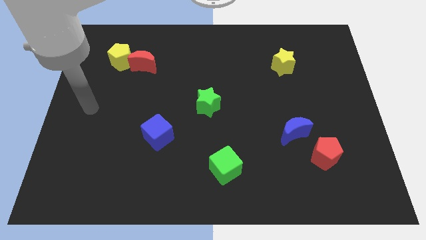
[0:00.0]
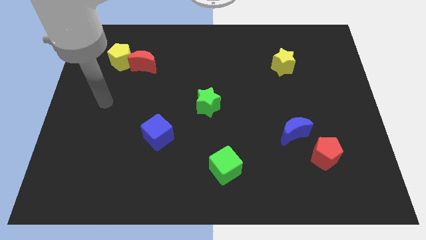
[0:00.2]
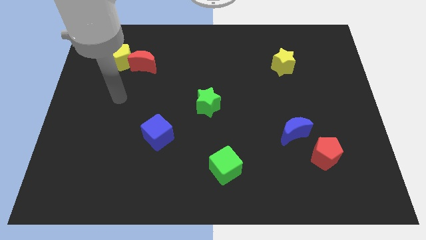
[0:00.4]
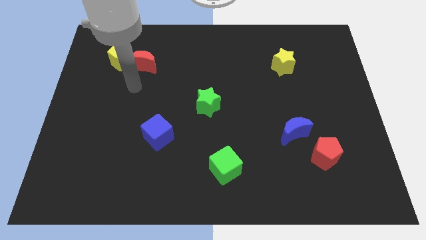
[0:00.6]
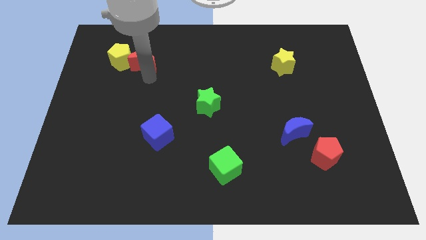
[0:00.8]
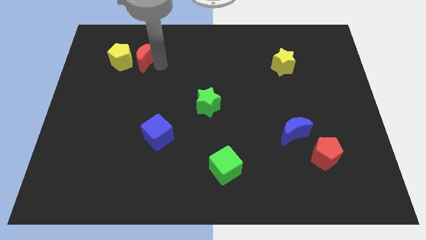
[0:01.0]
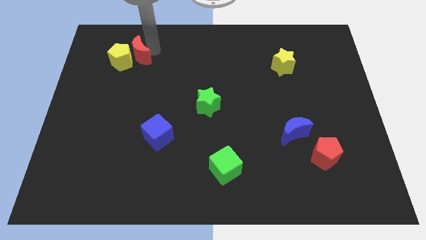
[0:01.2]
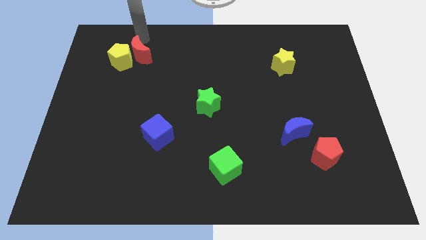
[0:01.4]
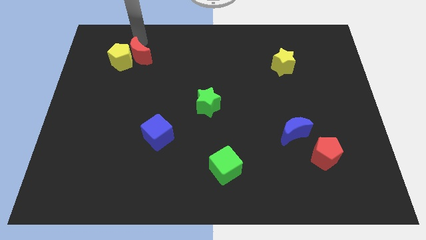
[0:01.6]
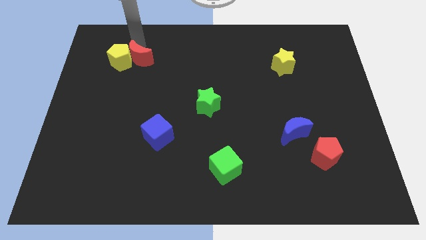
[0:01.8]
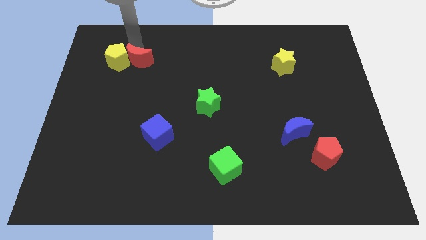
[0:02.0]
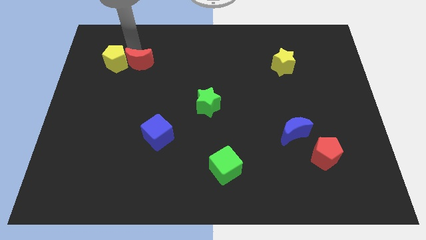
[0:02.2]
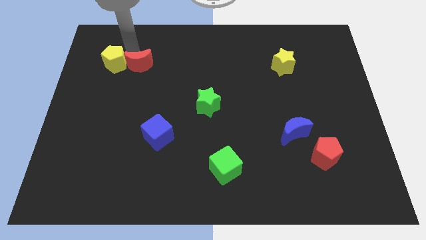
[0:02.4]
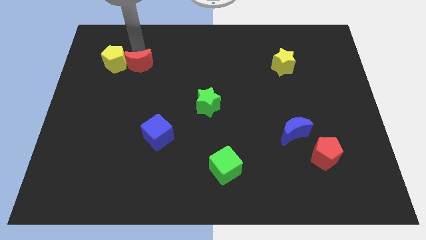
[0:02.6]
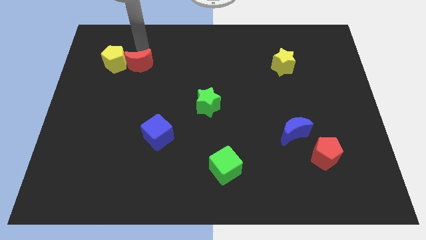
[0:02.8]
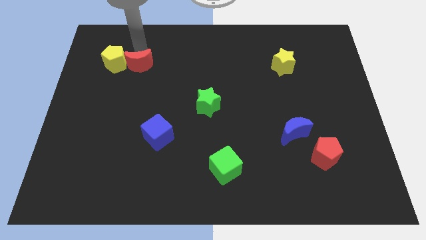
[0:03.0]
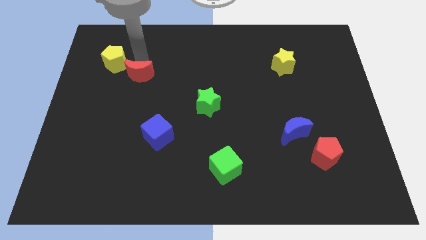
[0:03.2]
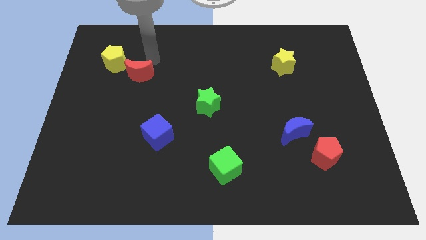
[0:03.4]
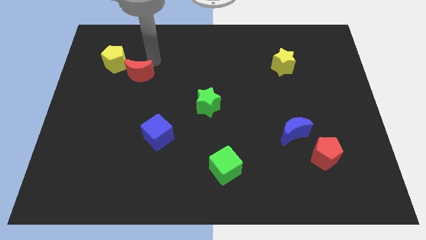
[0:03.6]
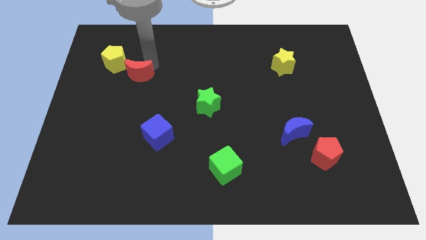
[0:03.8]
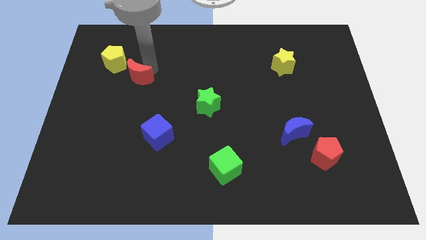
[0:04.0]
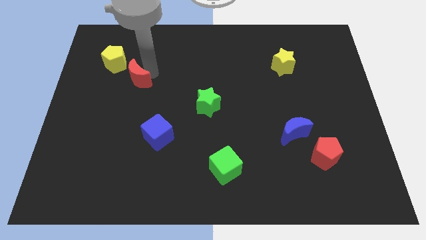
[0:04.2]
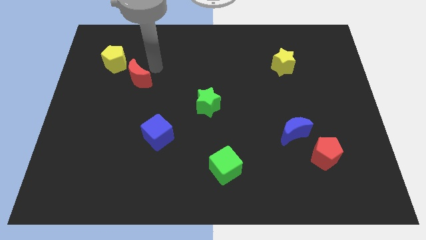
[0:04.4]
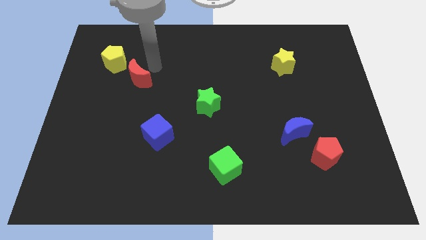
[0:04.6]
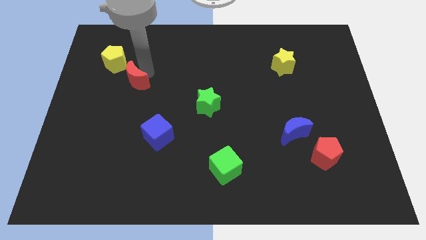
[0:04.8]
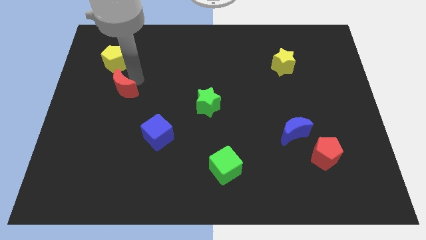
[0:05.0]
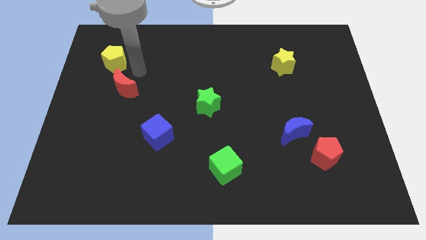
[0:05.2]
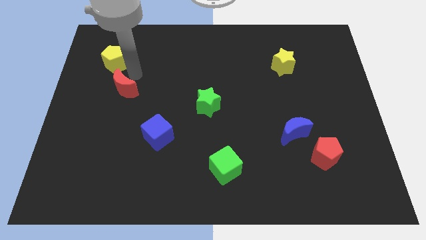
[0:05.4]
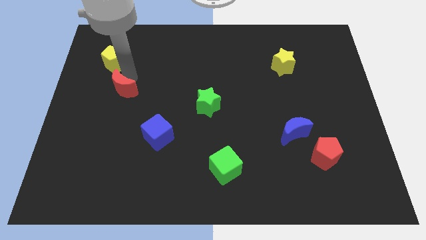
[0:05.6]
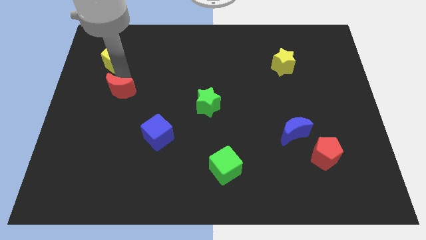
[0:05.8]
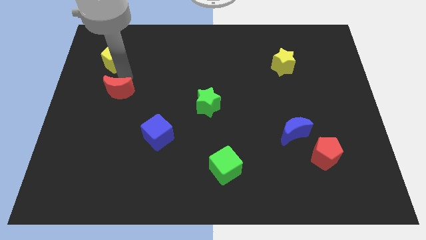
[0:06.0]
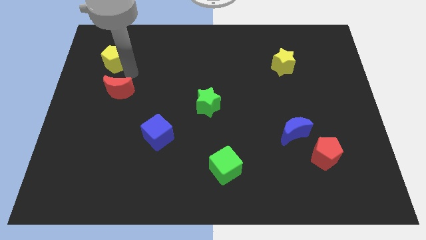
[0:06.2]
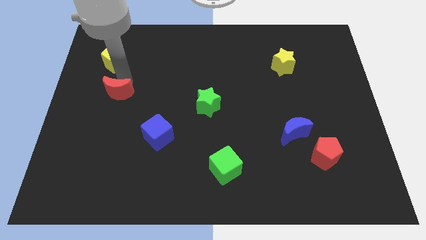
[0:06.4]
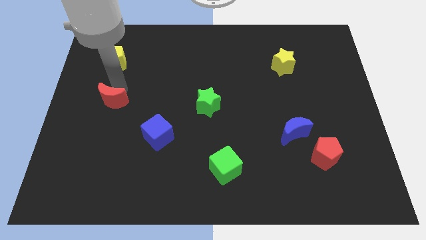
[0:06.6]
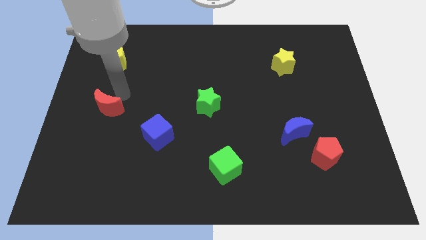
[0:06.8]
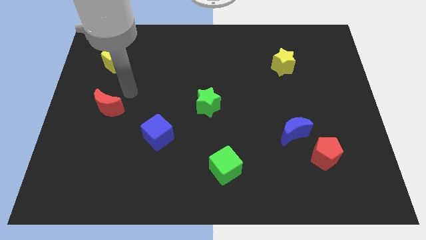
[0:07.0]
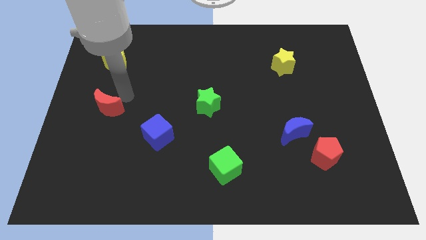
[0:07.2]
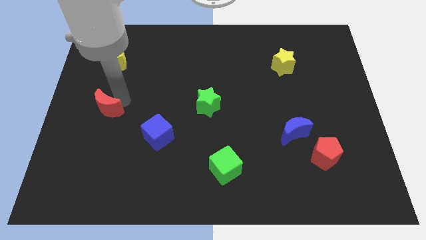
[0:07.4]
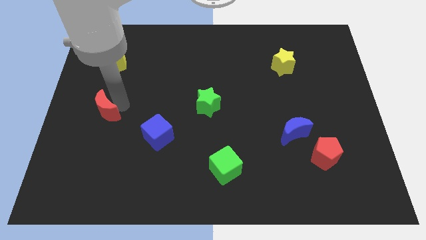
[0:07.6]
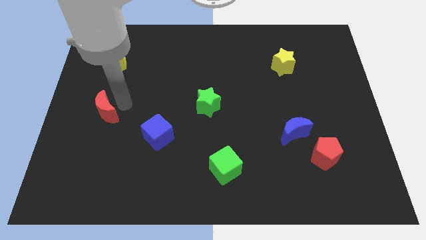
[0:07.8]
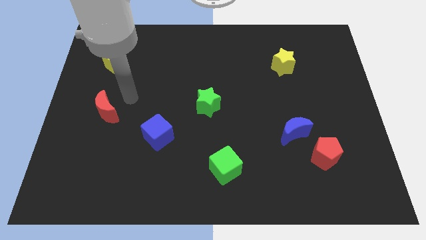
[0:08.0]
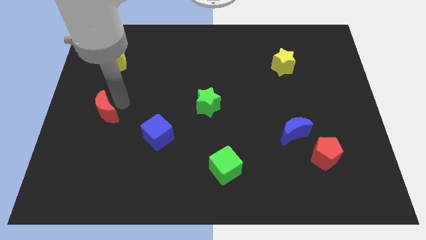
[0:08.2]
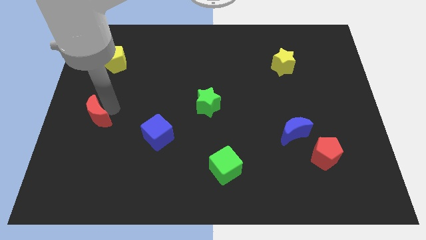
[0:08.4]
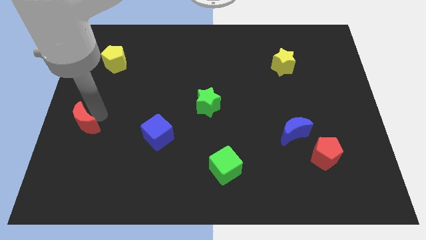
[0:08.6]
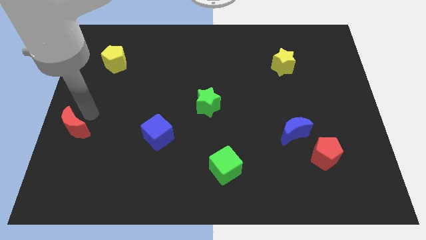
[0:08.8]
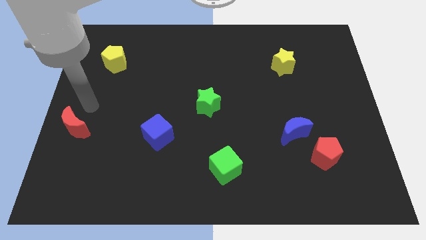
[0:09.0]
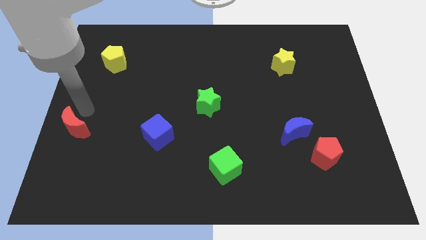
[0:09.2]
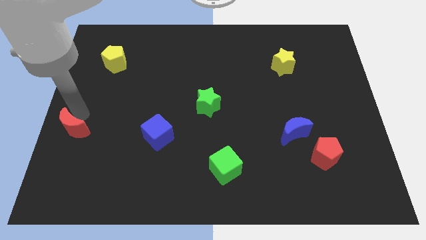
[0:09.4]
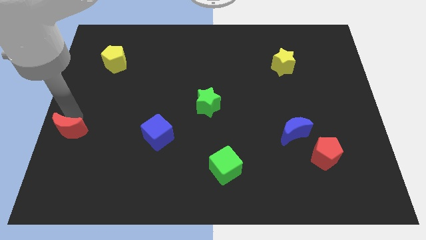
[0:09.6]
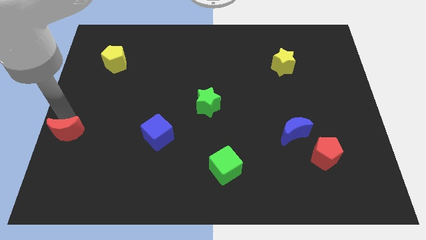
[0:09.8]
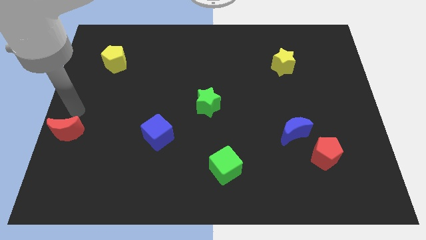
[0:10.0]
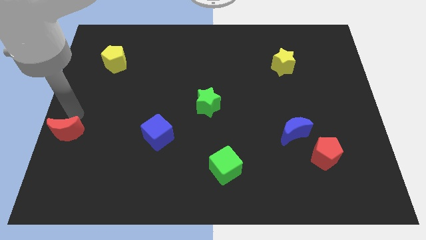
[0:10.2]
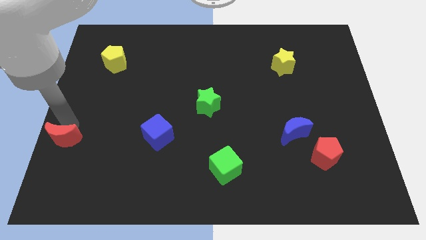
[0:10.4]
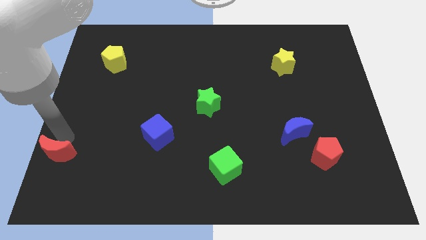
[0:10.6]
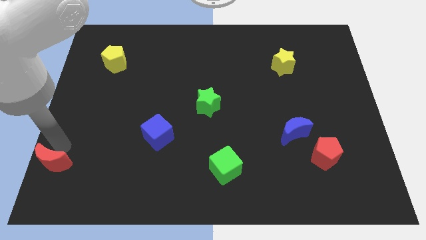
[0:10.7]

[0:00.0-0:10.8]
slide the red moon to the bottom left corner

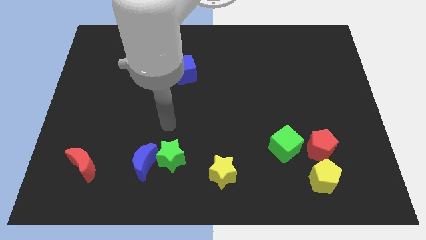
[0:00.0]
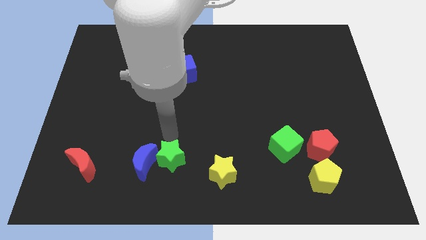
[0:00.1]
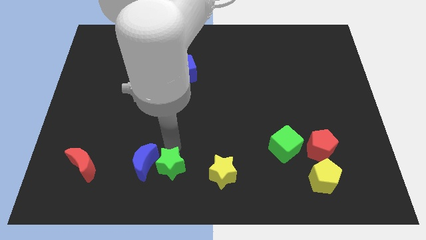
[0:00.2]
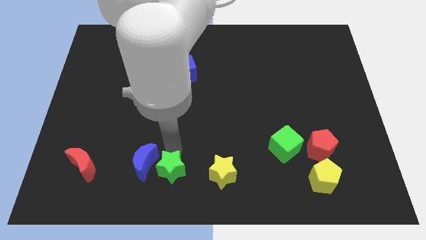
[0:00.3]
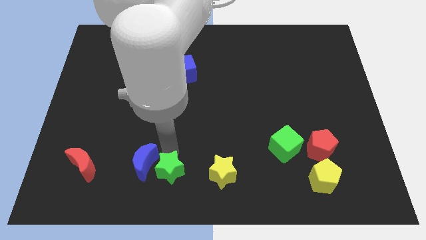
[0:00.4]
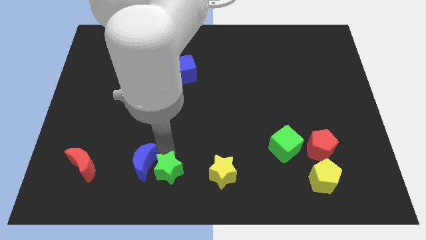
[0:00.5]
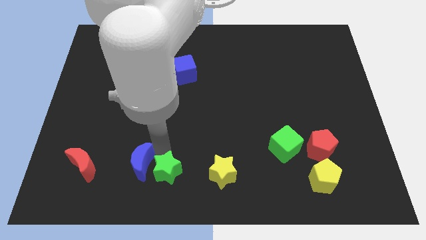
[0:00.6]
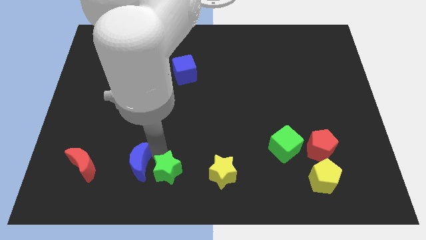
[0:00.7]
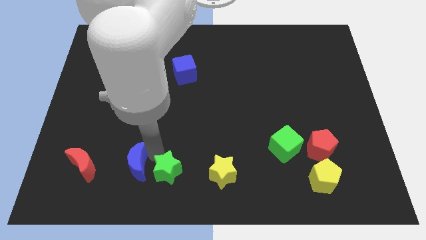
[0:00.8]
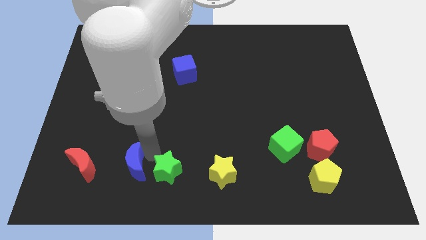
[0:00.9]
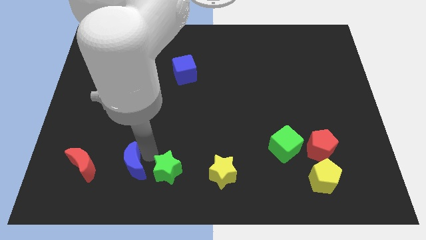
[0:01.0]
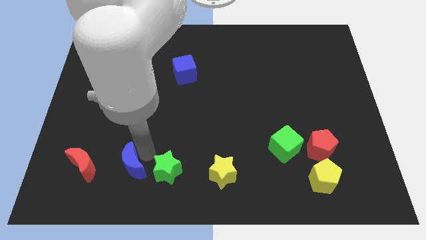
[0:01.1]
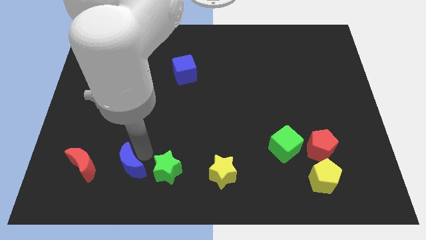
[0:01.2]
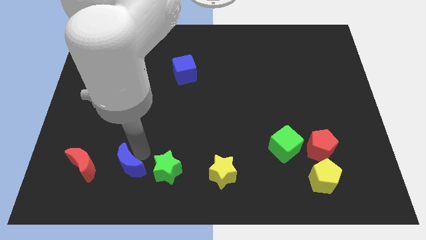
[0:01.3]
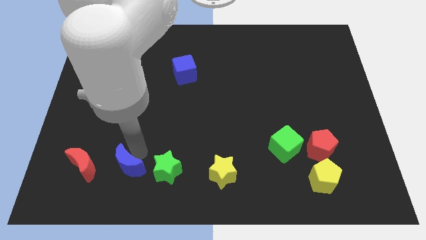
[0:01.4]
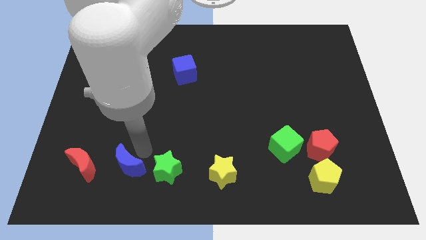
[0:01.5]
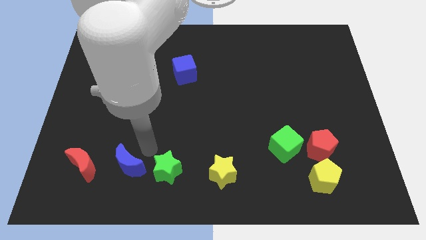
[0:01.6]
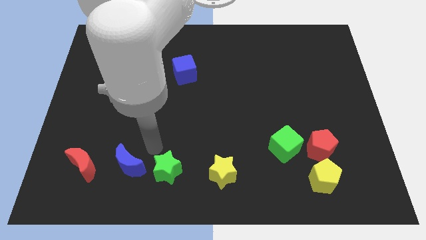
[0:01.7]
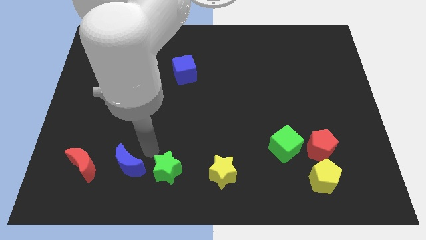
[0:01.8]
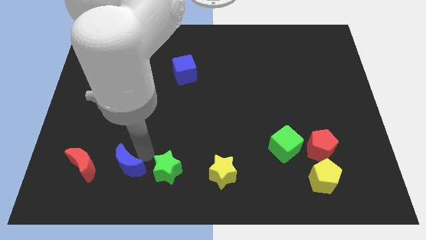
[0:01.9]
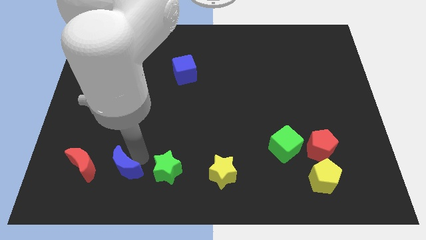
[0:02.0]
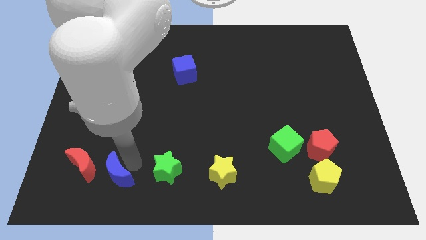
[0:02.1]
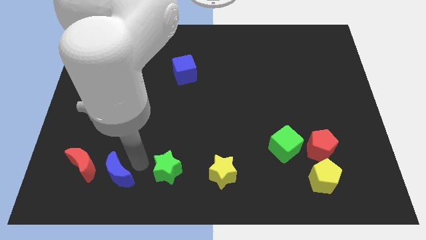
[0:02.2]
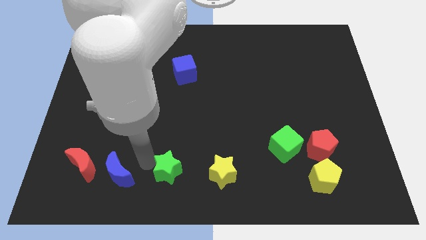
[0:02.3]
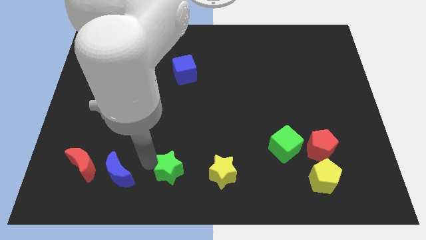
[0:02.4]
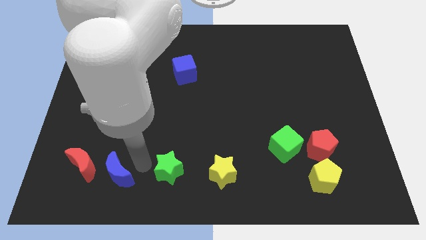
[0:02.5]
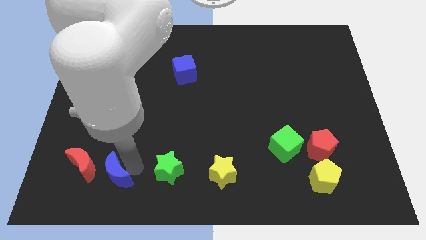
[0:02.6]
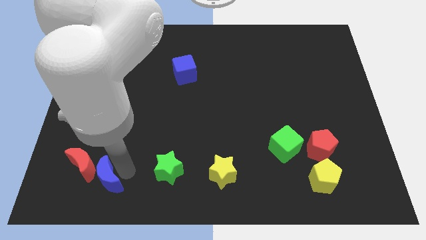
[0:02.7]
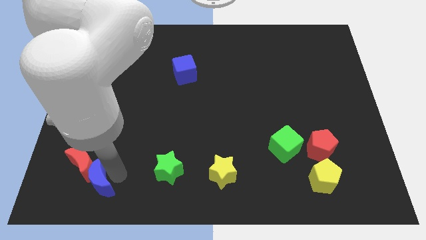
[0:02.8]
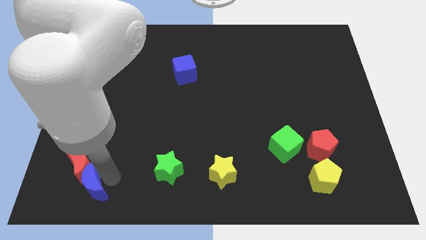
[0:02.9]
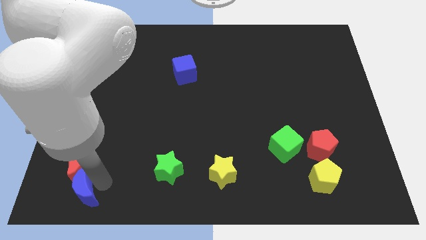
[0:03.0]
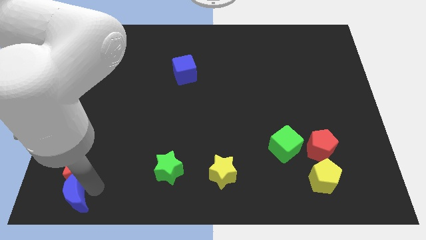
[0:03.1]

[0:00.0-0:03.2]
move the blue moon to the bottom left corner
